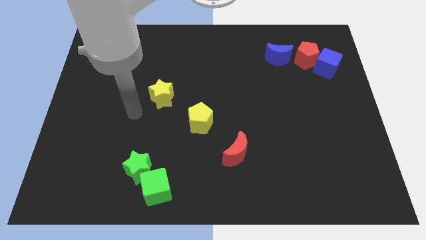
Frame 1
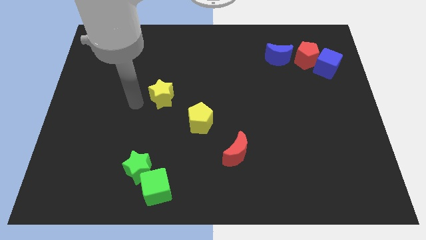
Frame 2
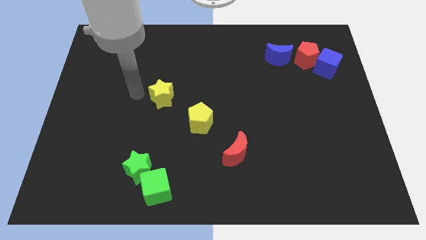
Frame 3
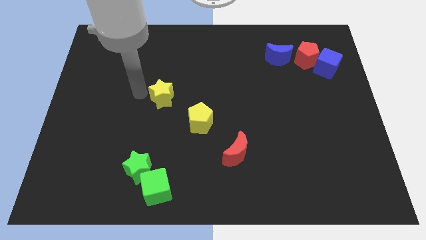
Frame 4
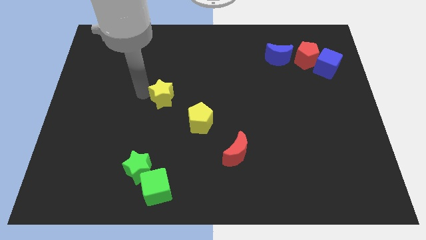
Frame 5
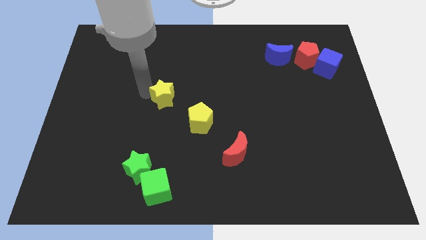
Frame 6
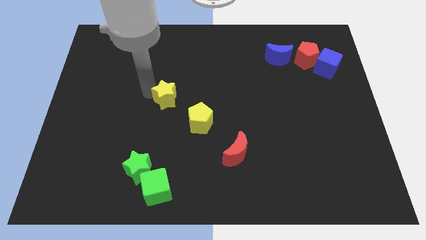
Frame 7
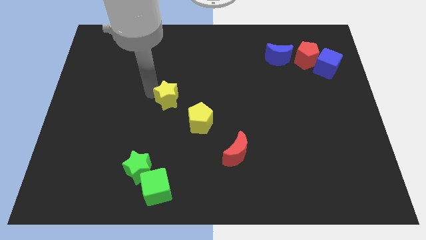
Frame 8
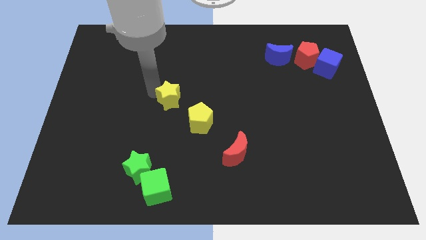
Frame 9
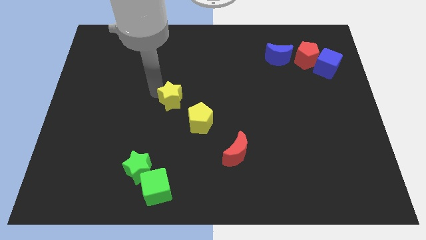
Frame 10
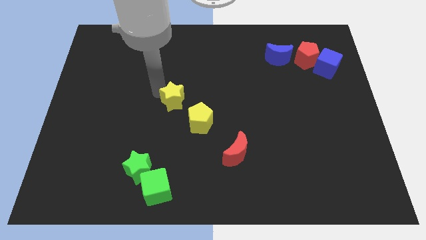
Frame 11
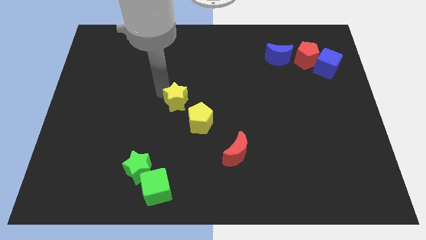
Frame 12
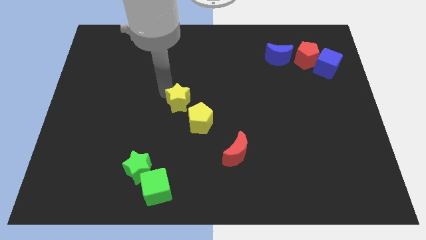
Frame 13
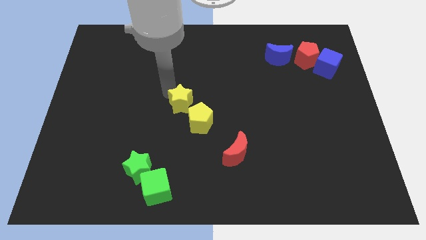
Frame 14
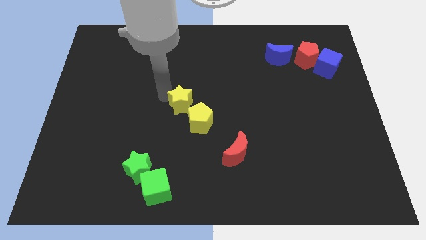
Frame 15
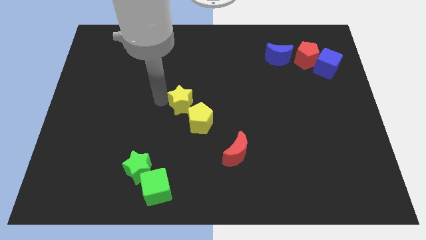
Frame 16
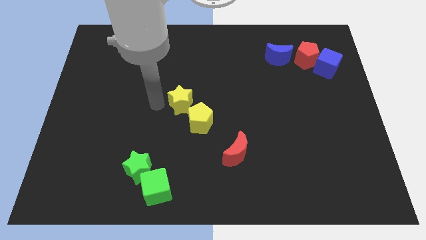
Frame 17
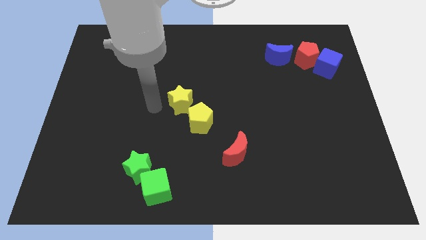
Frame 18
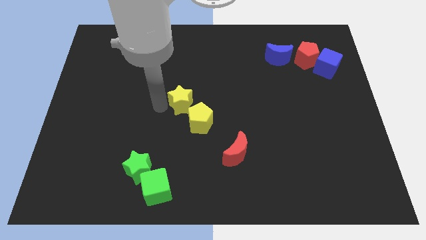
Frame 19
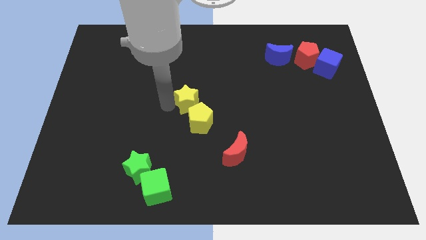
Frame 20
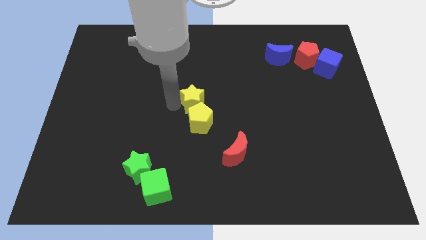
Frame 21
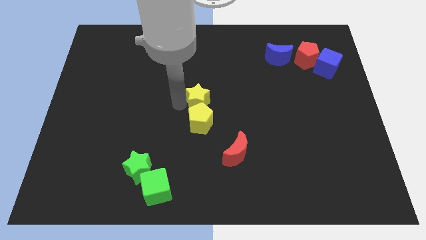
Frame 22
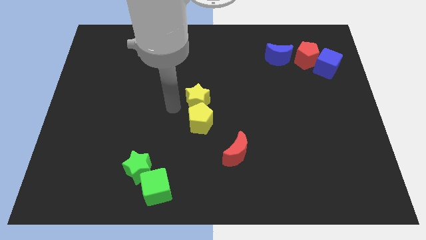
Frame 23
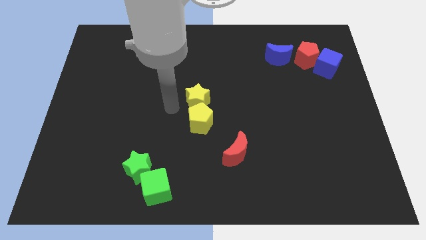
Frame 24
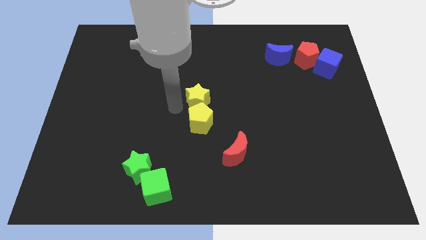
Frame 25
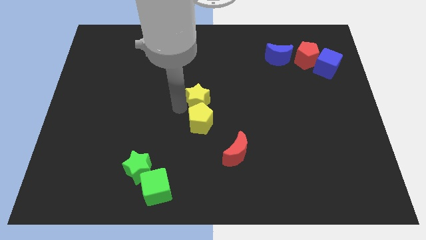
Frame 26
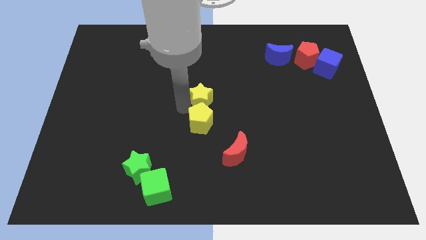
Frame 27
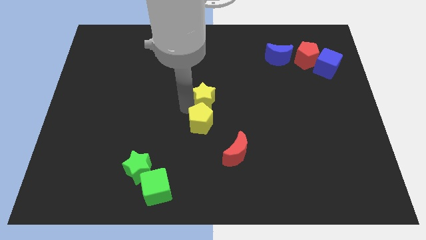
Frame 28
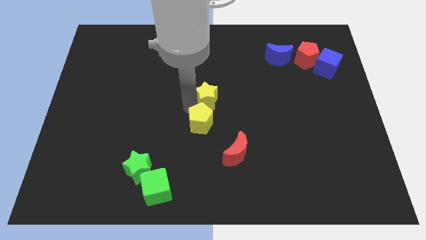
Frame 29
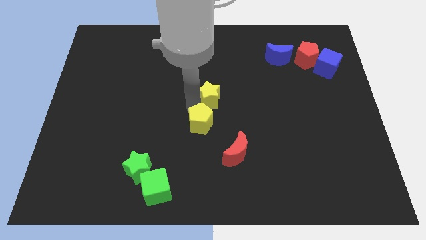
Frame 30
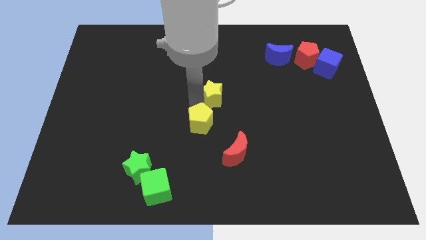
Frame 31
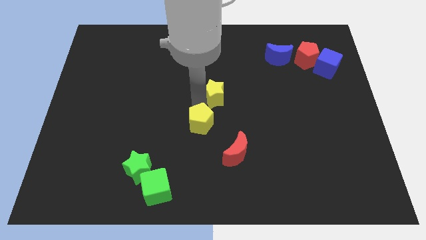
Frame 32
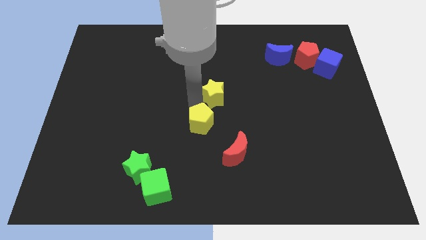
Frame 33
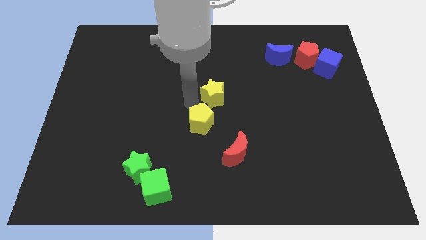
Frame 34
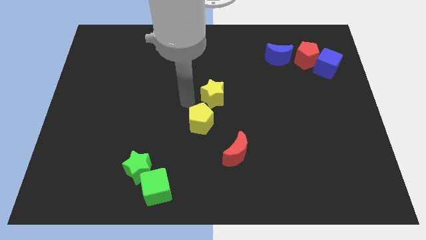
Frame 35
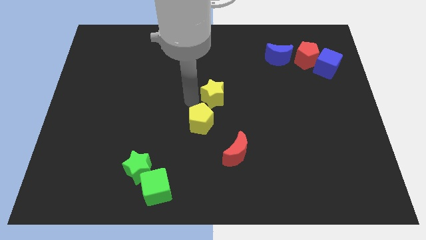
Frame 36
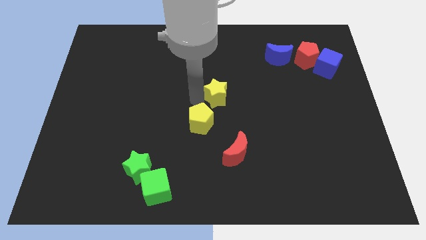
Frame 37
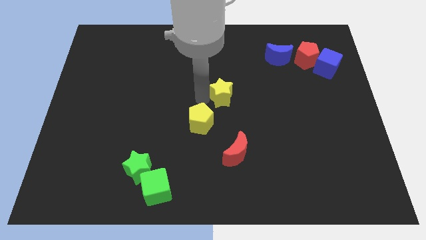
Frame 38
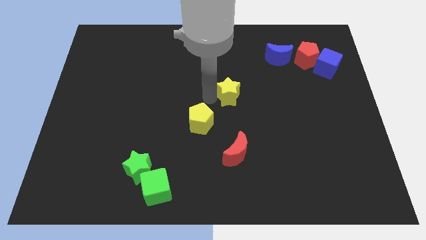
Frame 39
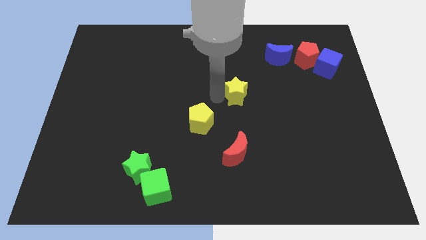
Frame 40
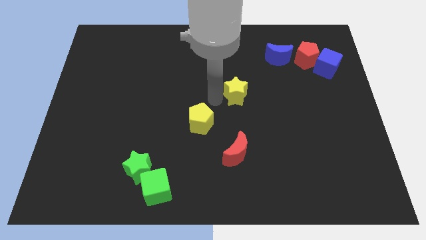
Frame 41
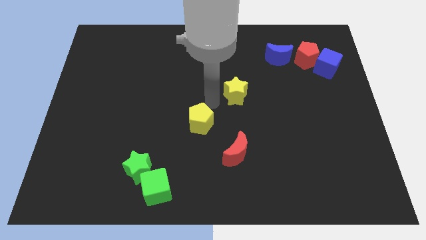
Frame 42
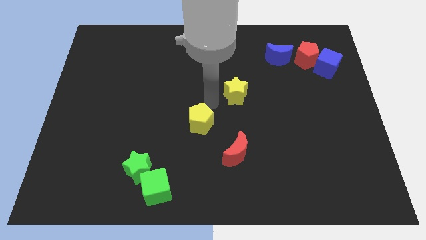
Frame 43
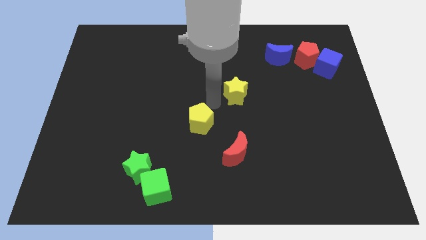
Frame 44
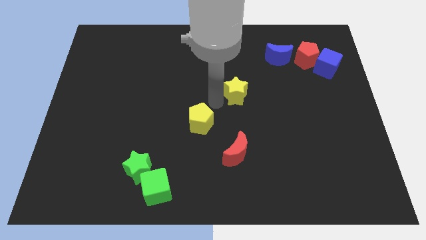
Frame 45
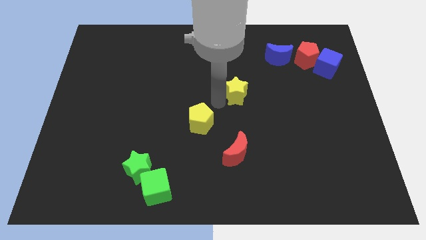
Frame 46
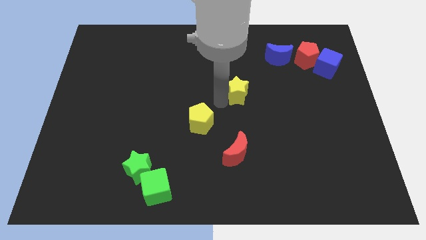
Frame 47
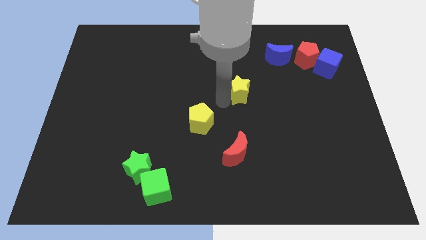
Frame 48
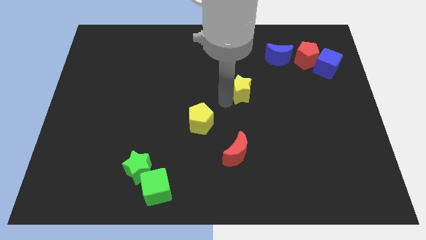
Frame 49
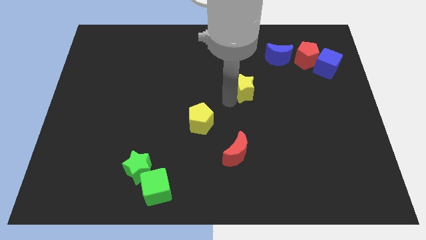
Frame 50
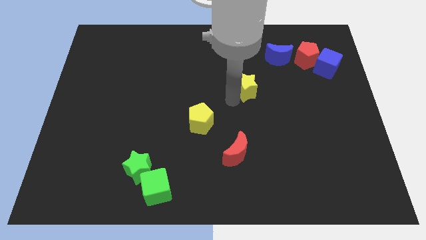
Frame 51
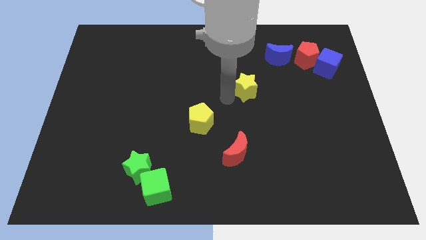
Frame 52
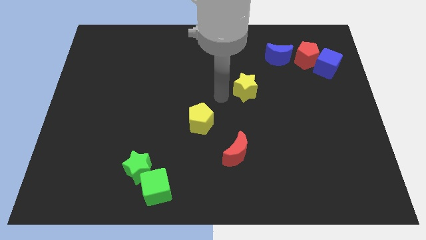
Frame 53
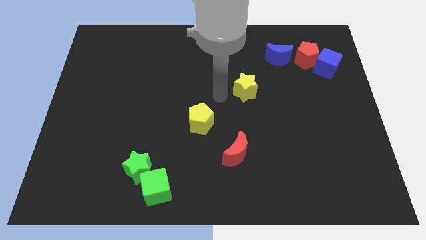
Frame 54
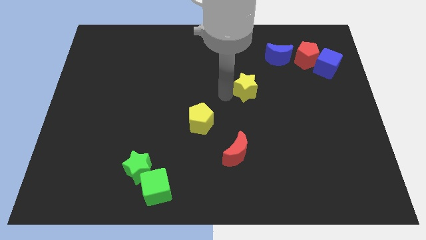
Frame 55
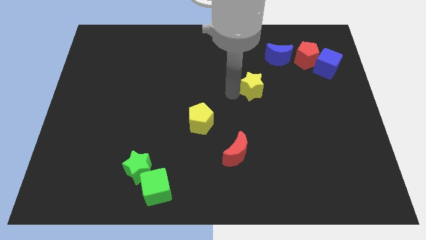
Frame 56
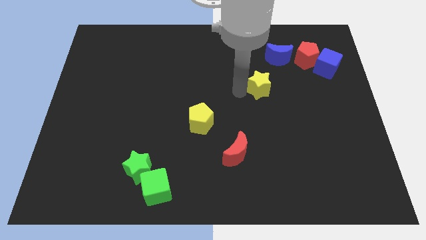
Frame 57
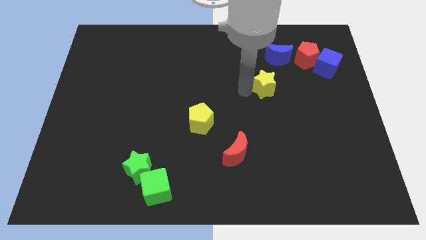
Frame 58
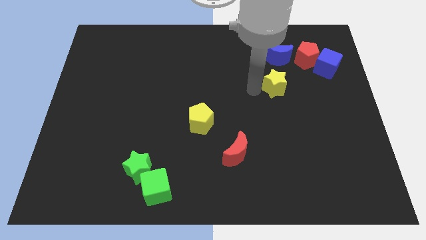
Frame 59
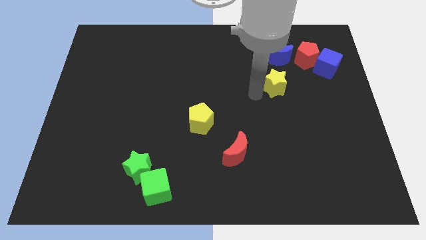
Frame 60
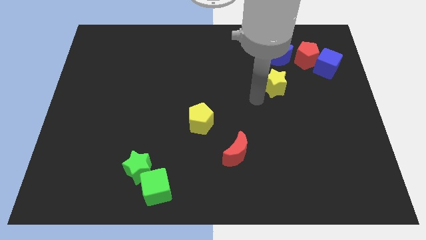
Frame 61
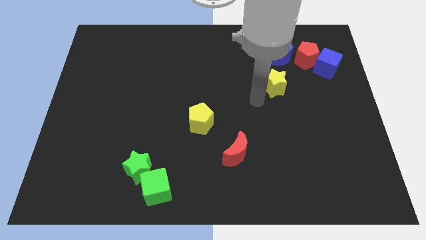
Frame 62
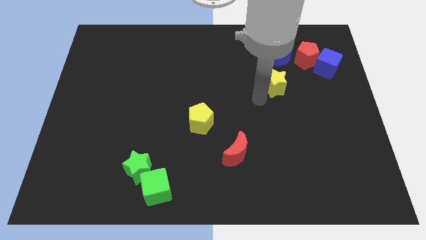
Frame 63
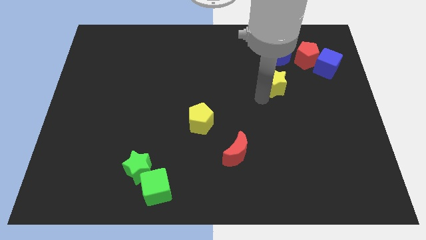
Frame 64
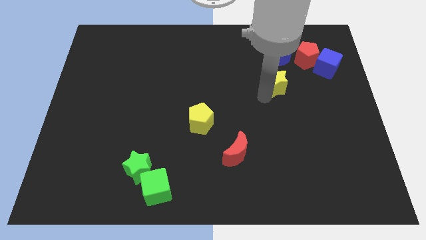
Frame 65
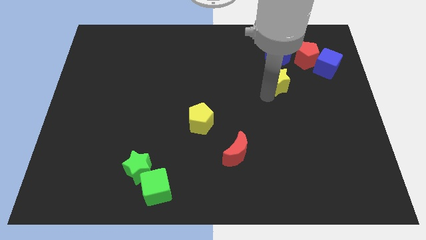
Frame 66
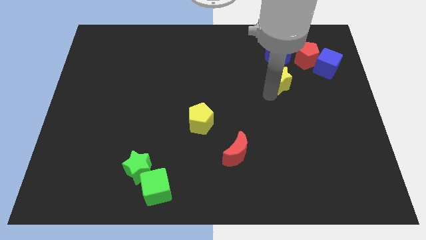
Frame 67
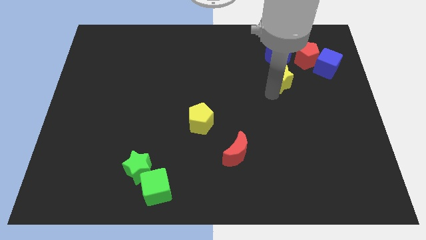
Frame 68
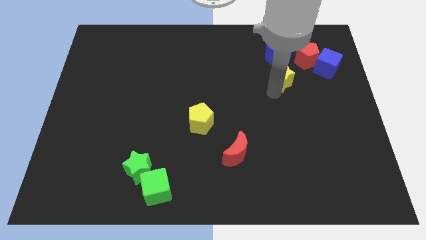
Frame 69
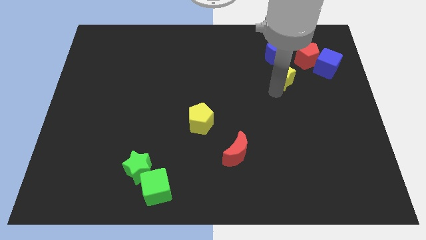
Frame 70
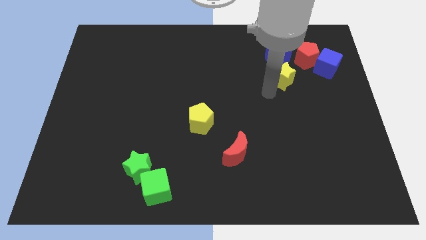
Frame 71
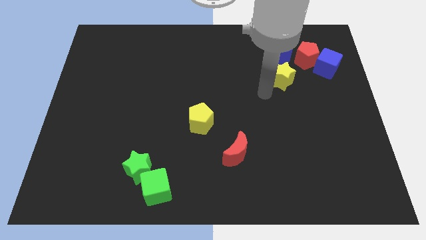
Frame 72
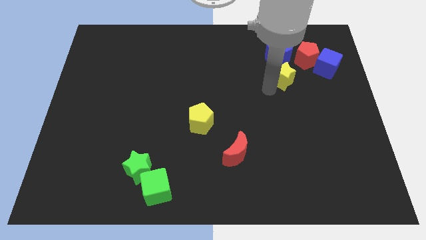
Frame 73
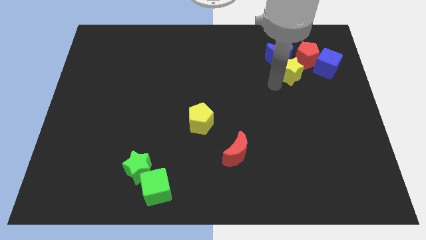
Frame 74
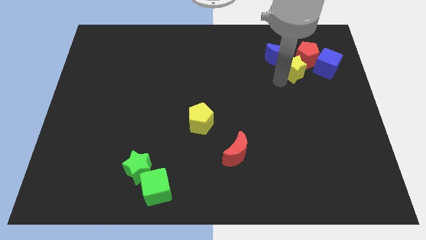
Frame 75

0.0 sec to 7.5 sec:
slide the yellow star close to the red pentagon
